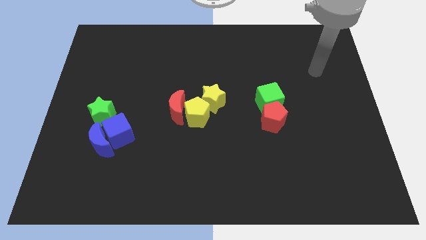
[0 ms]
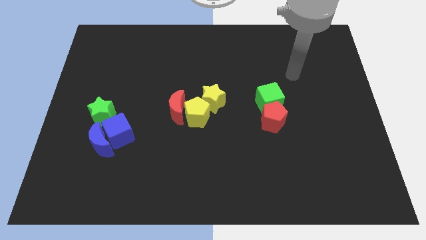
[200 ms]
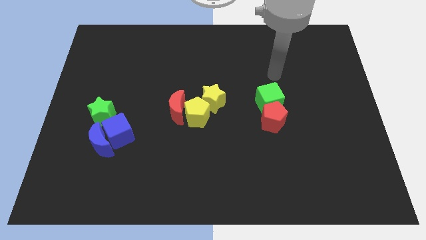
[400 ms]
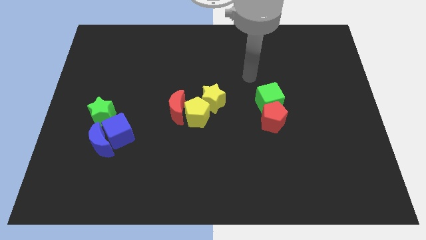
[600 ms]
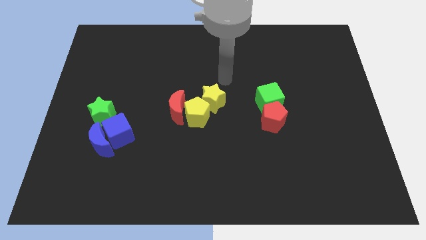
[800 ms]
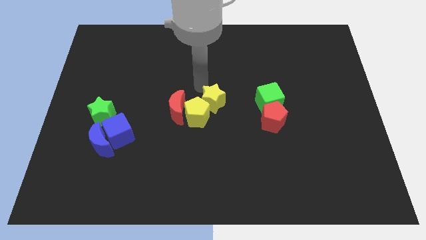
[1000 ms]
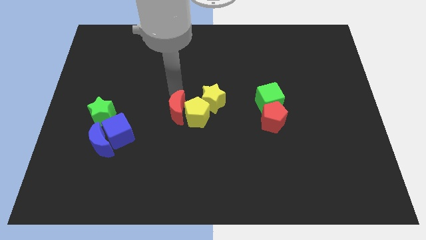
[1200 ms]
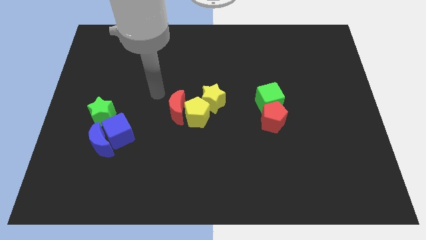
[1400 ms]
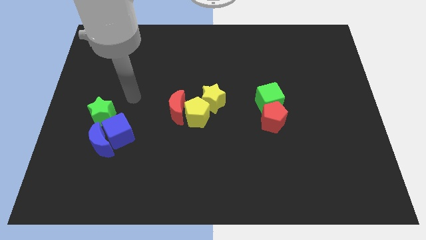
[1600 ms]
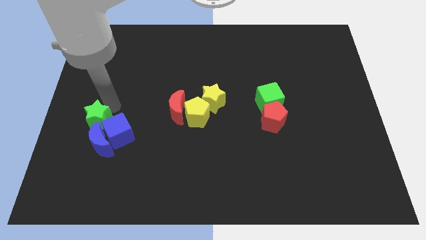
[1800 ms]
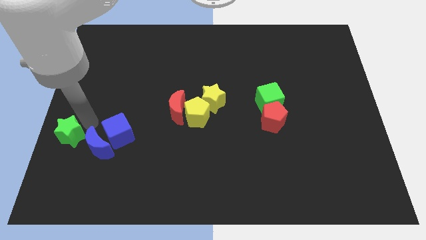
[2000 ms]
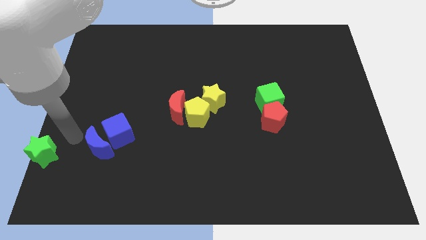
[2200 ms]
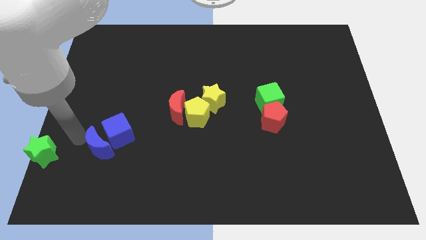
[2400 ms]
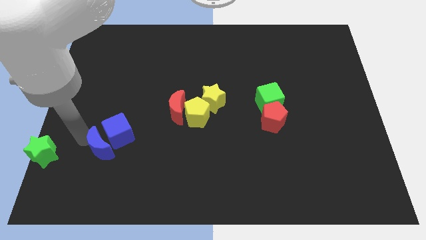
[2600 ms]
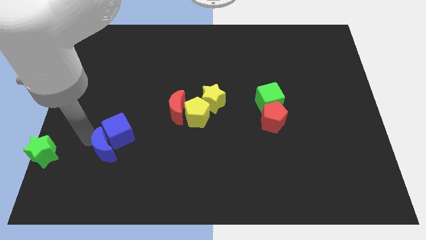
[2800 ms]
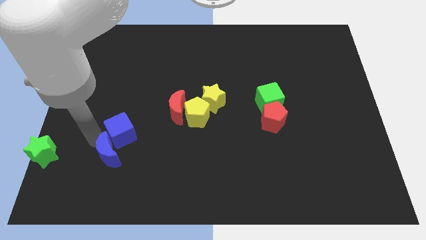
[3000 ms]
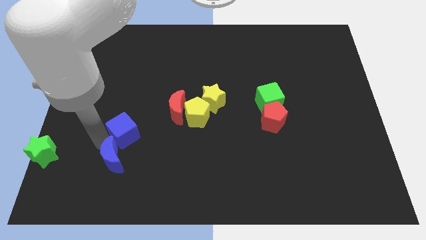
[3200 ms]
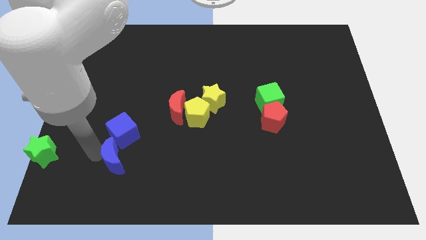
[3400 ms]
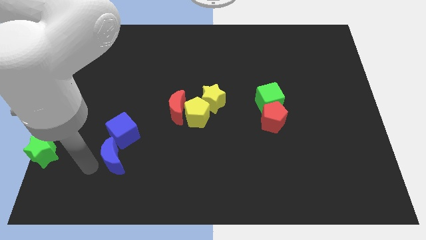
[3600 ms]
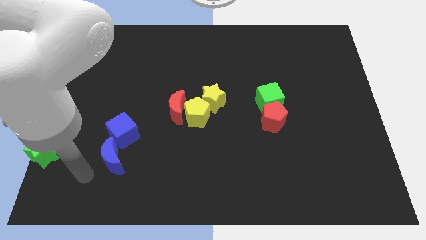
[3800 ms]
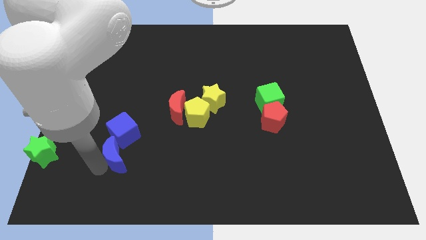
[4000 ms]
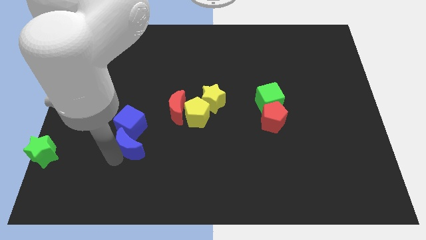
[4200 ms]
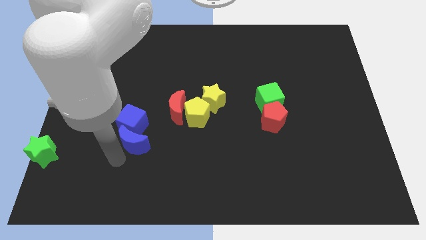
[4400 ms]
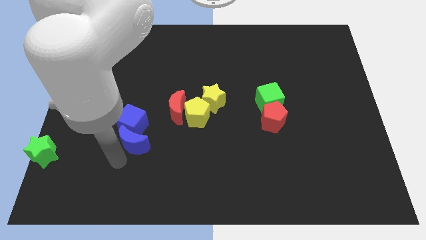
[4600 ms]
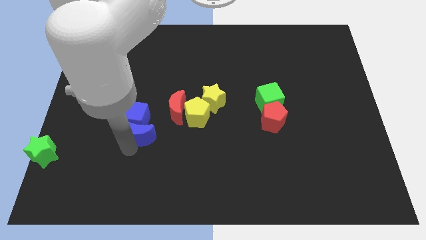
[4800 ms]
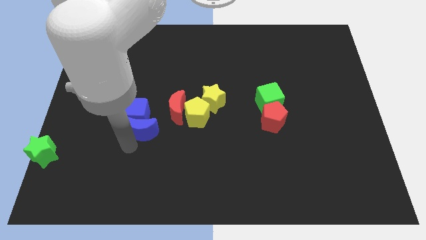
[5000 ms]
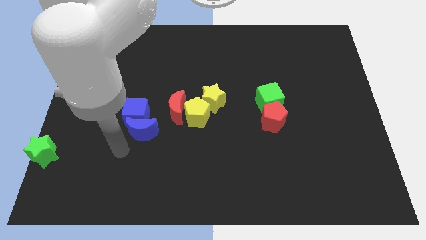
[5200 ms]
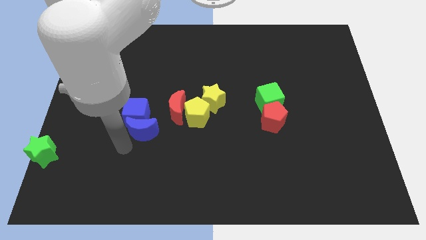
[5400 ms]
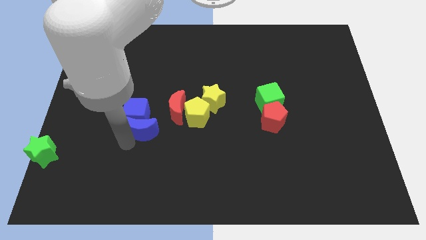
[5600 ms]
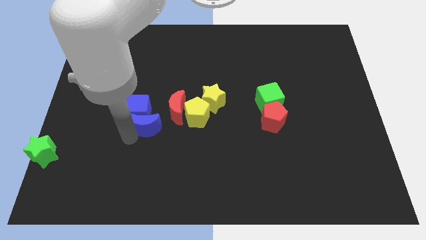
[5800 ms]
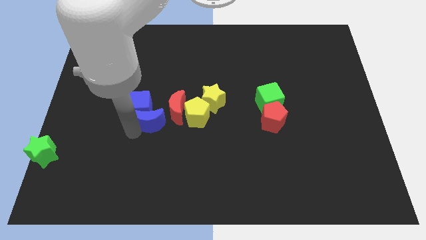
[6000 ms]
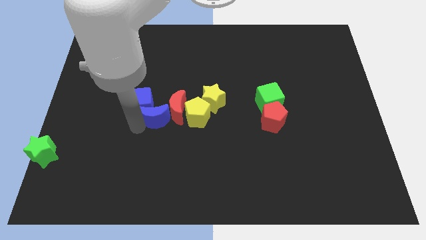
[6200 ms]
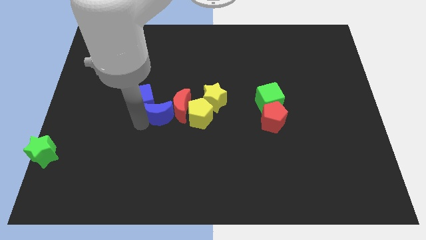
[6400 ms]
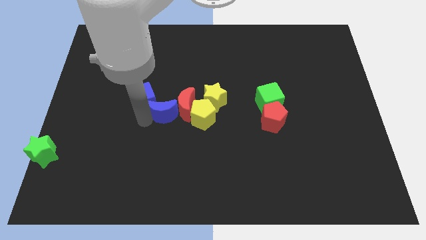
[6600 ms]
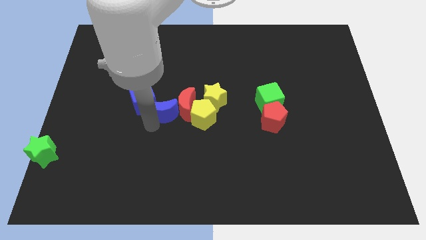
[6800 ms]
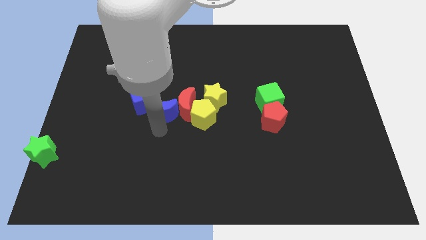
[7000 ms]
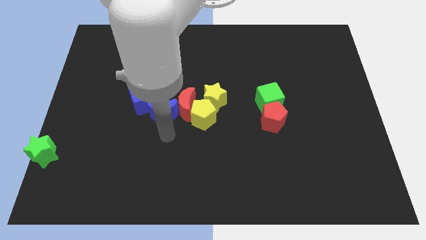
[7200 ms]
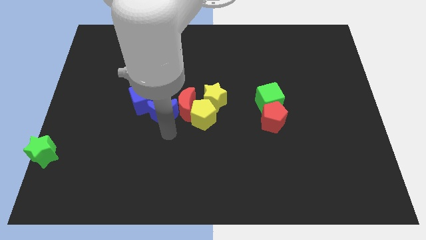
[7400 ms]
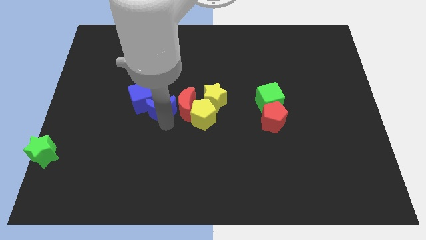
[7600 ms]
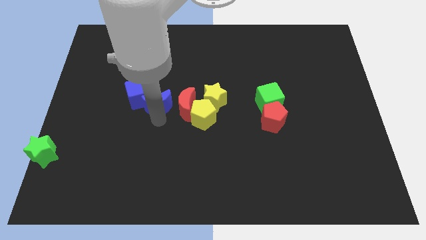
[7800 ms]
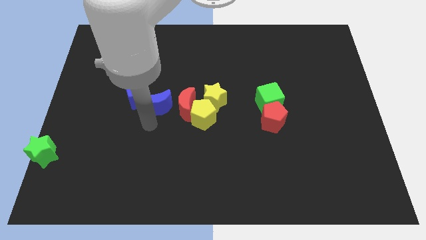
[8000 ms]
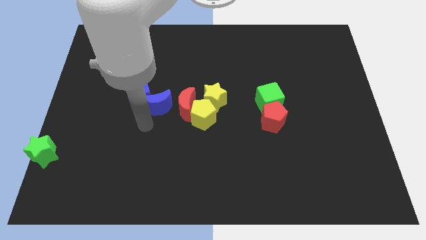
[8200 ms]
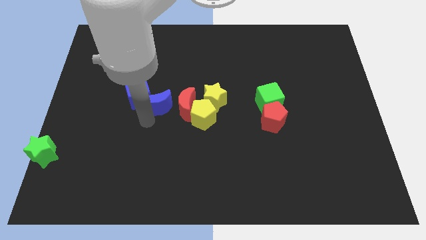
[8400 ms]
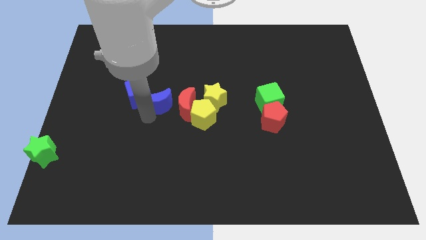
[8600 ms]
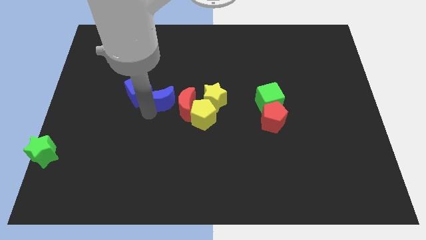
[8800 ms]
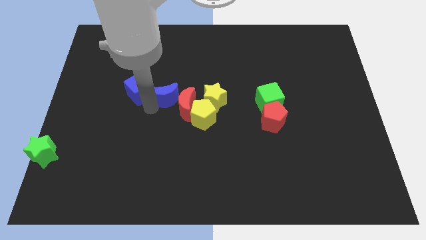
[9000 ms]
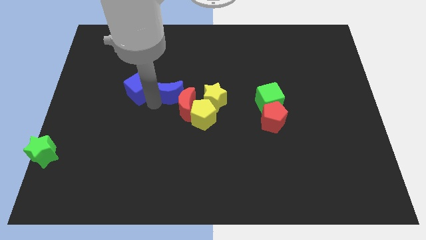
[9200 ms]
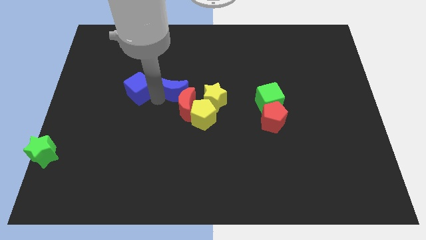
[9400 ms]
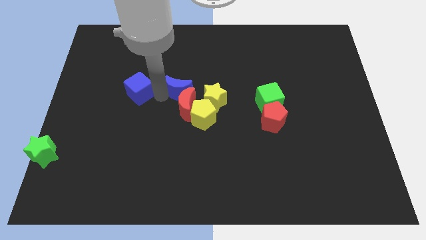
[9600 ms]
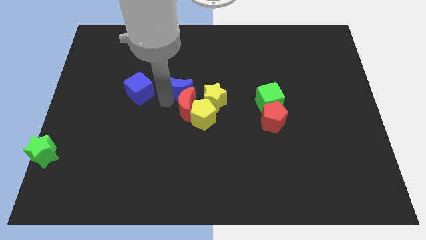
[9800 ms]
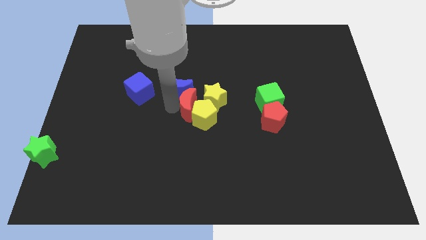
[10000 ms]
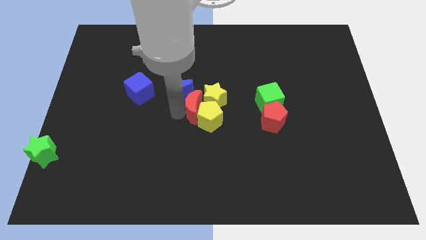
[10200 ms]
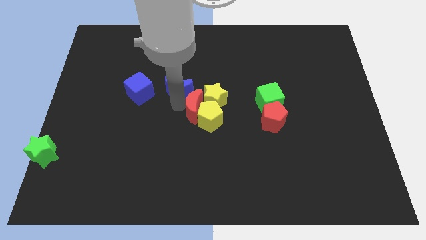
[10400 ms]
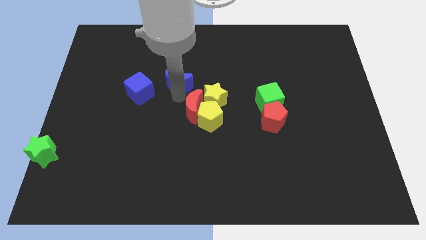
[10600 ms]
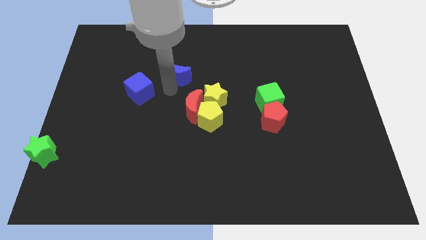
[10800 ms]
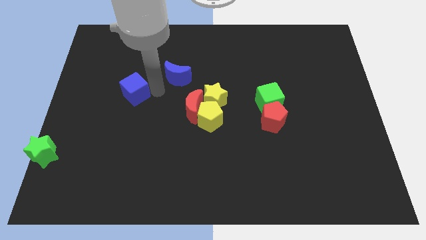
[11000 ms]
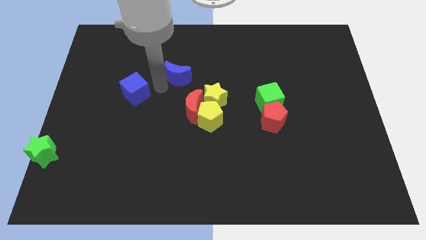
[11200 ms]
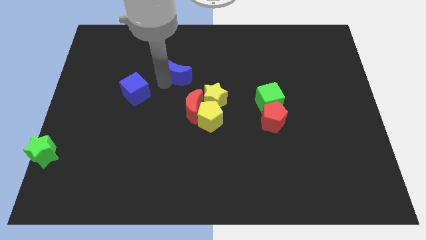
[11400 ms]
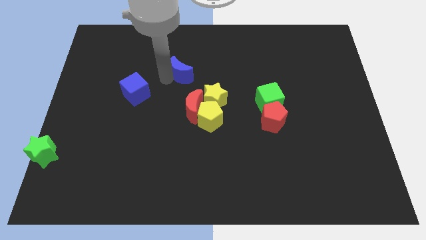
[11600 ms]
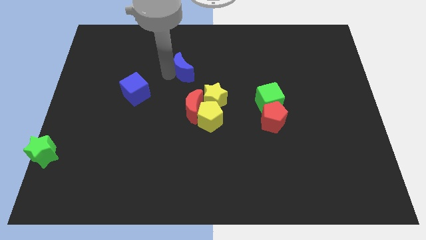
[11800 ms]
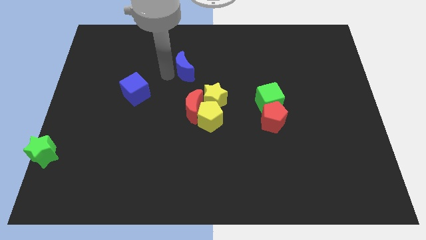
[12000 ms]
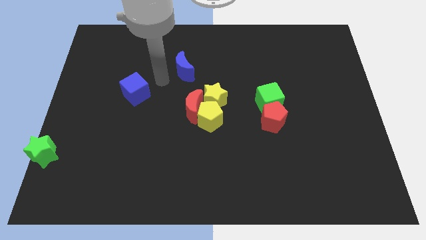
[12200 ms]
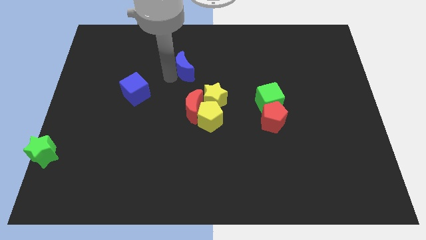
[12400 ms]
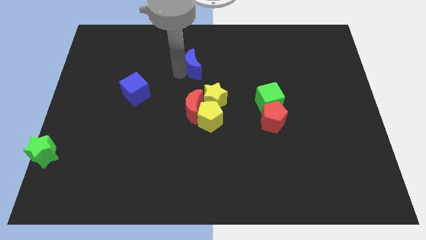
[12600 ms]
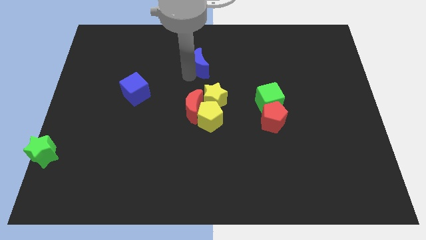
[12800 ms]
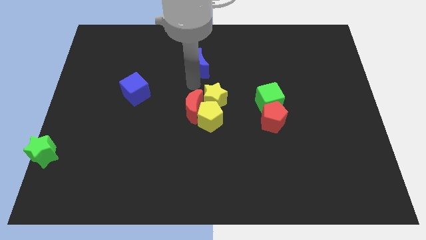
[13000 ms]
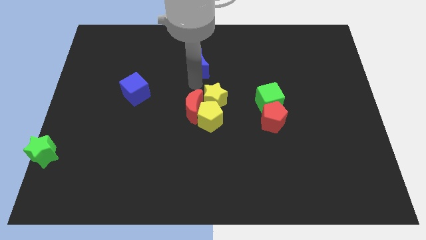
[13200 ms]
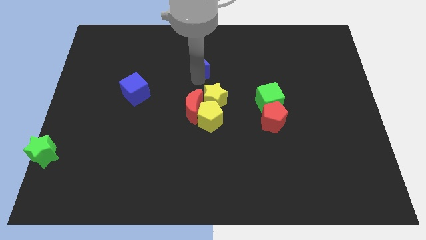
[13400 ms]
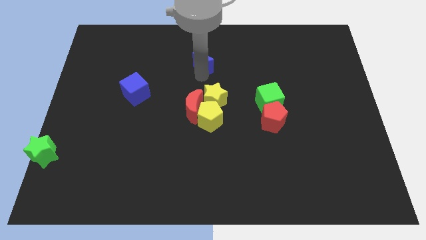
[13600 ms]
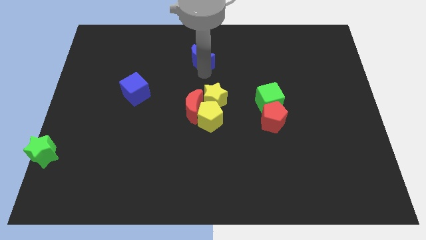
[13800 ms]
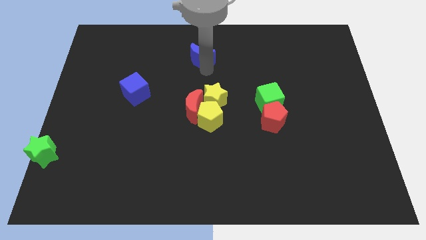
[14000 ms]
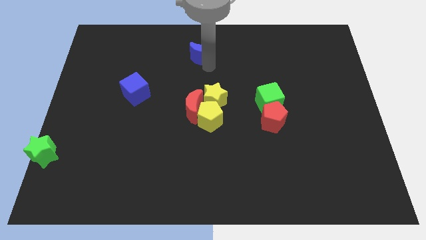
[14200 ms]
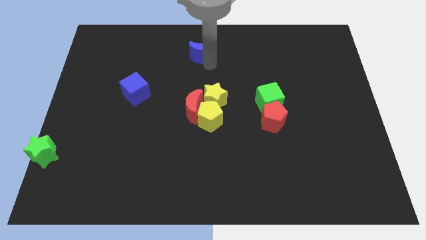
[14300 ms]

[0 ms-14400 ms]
push the blue moon to the top
